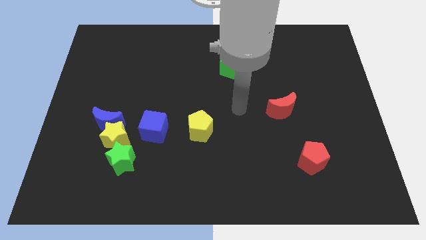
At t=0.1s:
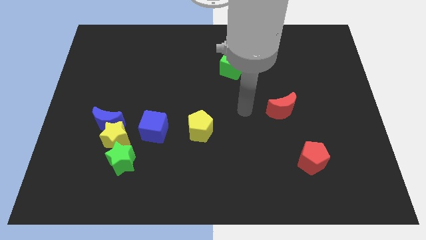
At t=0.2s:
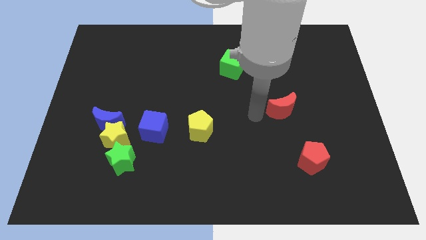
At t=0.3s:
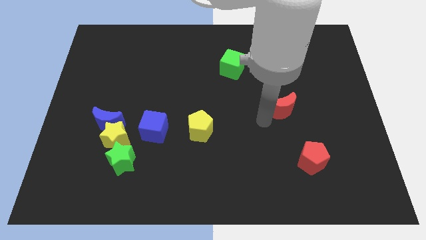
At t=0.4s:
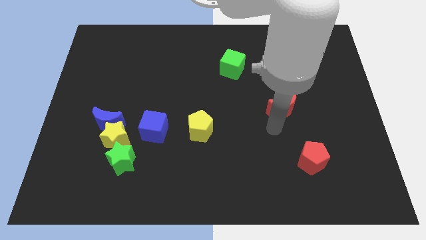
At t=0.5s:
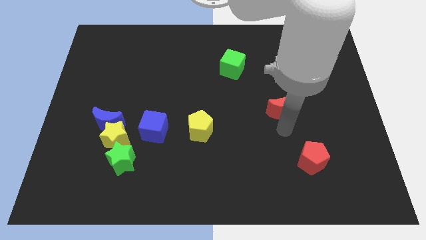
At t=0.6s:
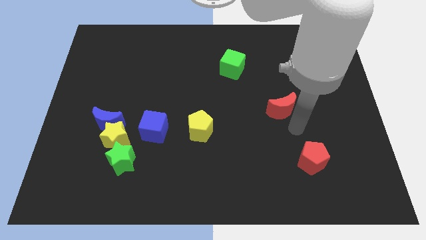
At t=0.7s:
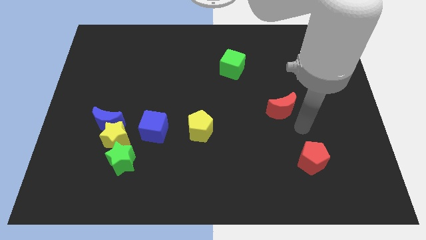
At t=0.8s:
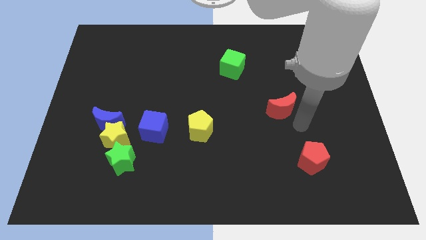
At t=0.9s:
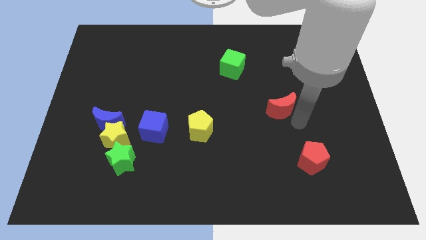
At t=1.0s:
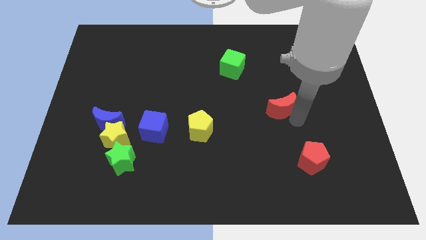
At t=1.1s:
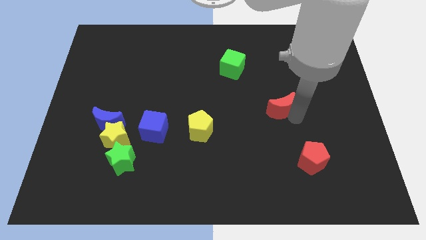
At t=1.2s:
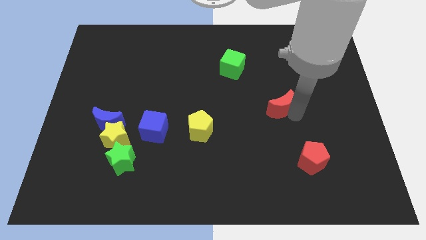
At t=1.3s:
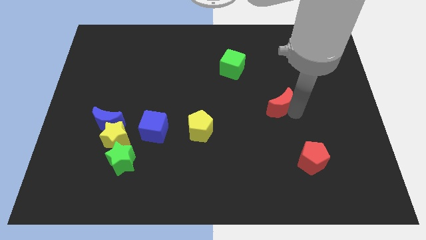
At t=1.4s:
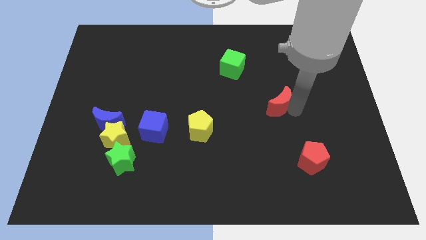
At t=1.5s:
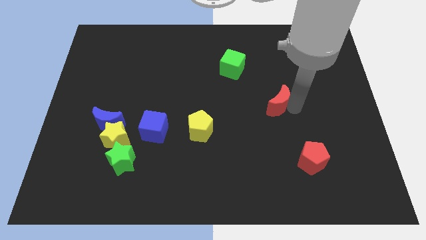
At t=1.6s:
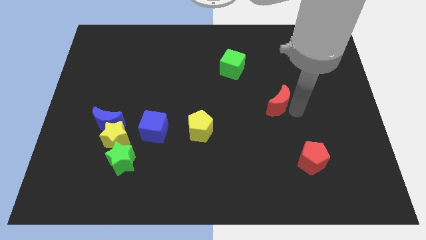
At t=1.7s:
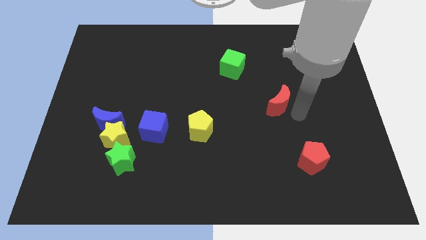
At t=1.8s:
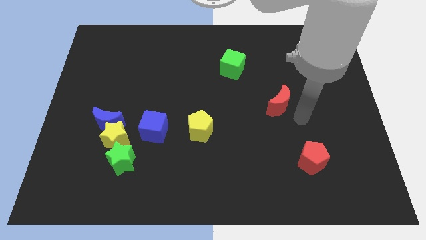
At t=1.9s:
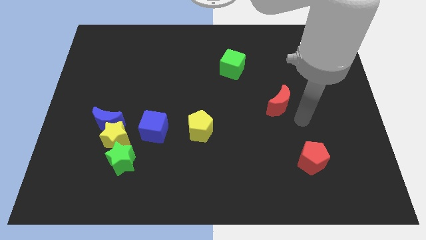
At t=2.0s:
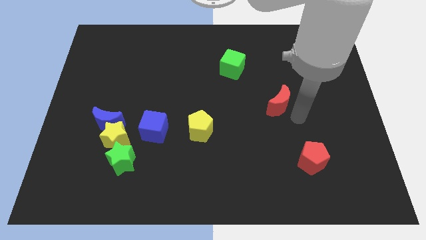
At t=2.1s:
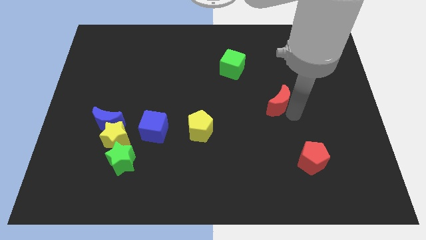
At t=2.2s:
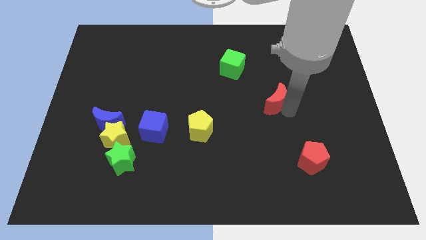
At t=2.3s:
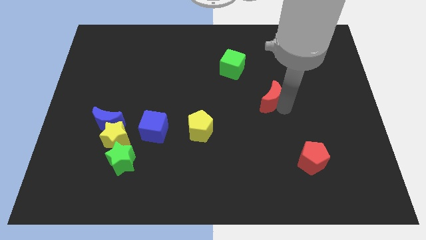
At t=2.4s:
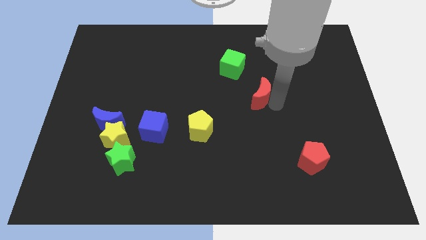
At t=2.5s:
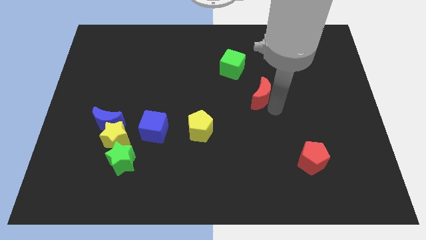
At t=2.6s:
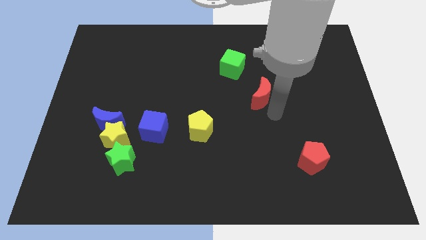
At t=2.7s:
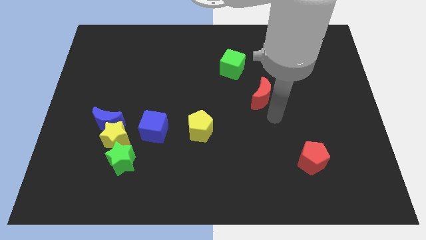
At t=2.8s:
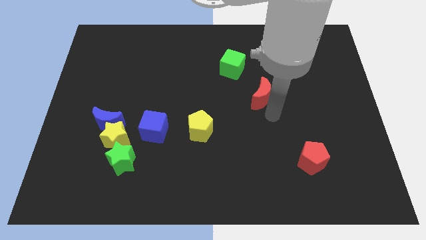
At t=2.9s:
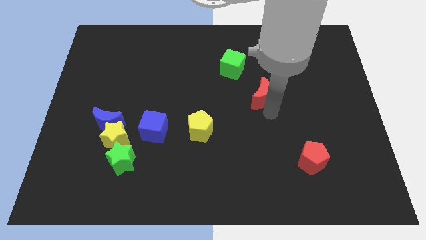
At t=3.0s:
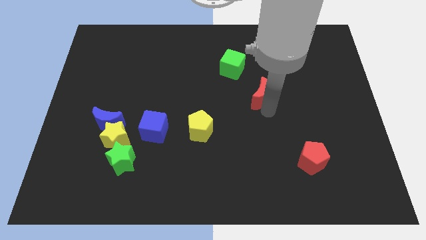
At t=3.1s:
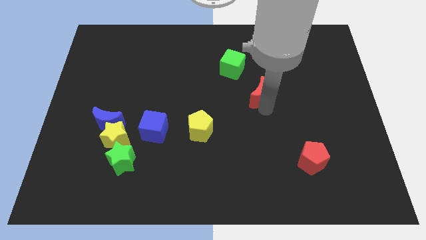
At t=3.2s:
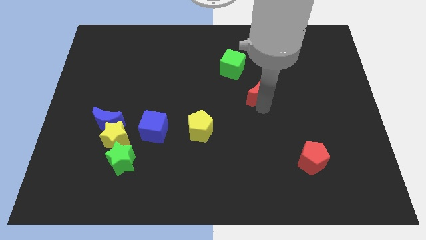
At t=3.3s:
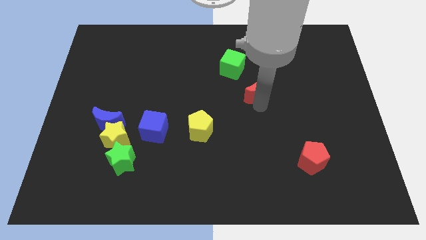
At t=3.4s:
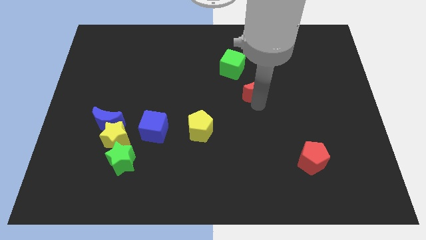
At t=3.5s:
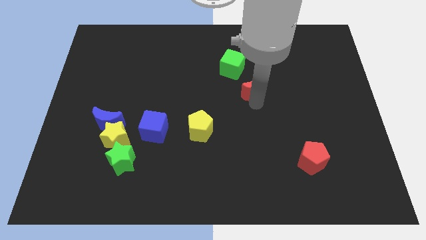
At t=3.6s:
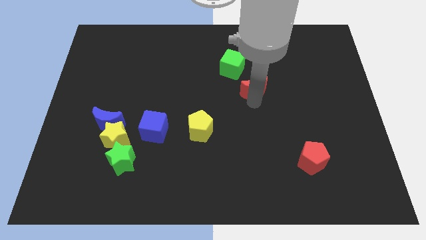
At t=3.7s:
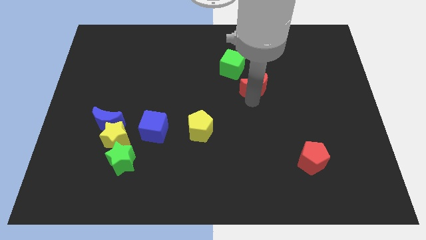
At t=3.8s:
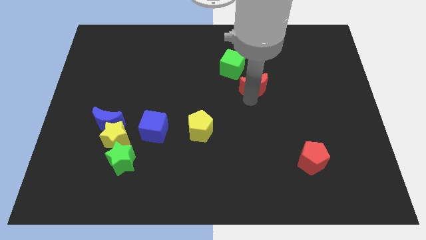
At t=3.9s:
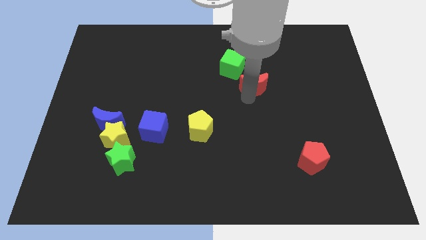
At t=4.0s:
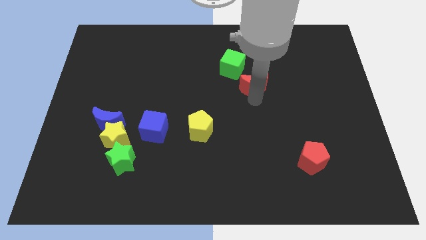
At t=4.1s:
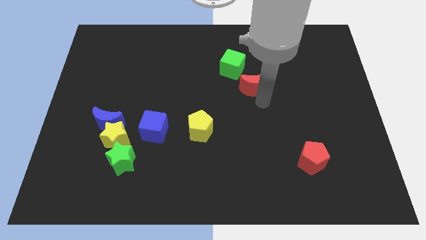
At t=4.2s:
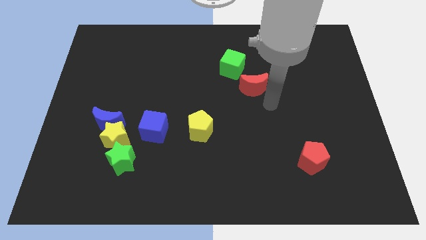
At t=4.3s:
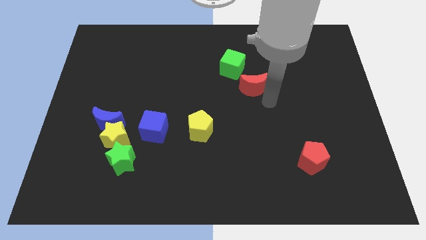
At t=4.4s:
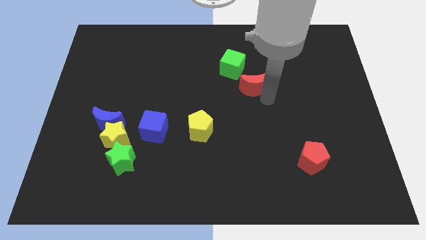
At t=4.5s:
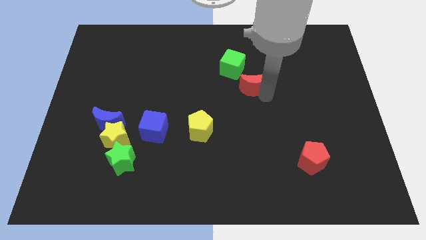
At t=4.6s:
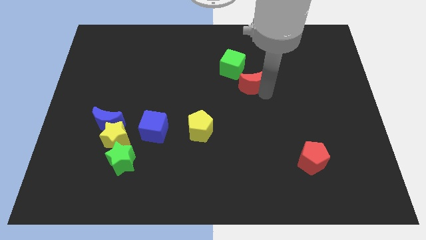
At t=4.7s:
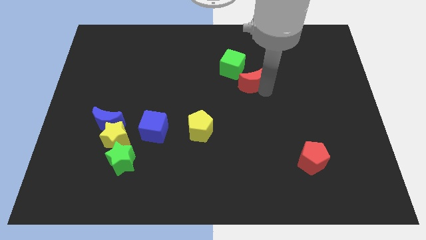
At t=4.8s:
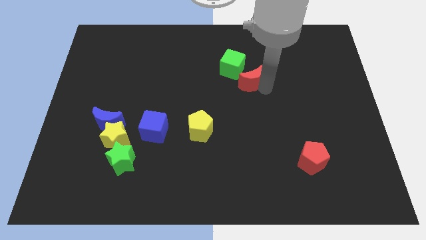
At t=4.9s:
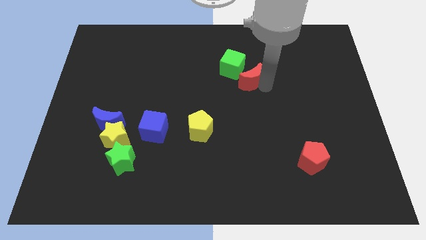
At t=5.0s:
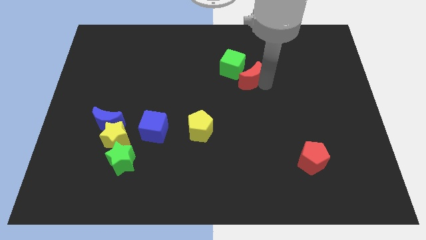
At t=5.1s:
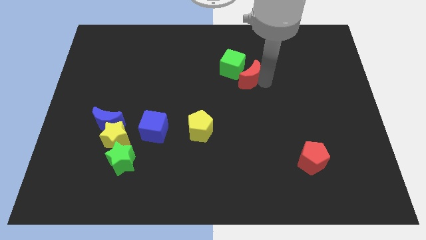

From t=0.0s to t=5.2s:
put the red moon close to the green cube

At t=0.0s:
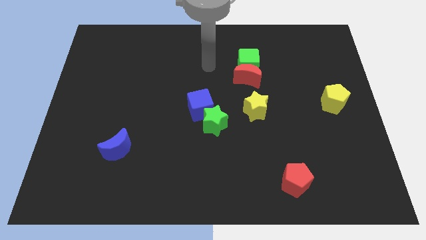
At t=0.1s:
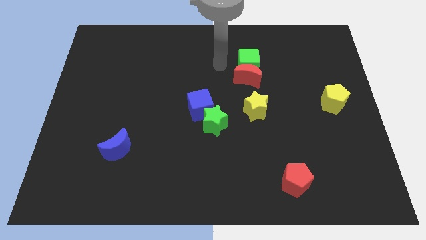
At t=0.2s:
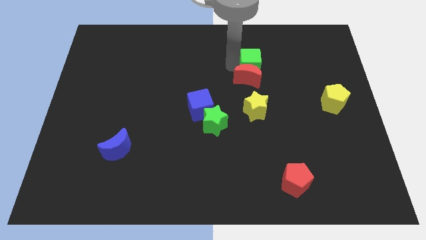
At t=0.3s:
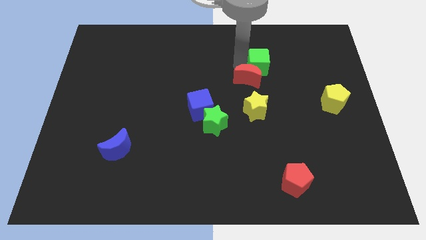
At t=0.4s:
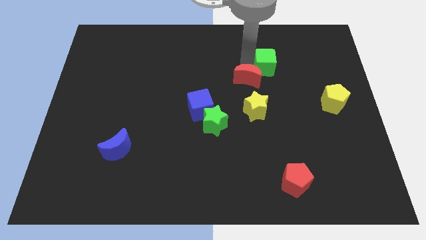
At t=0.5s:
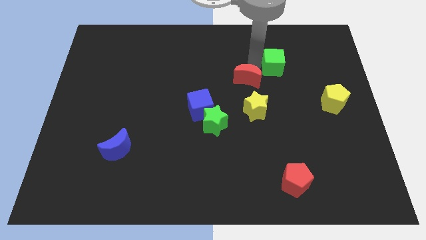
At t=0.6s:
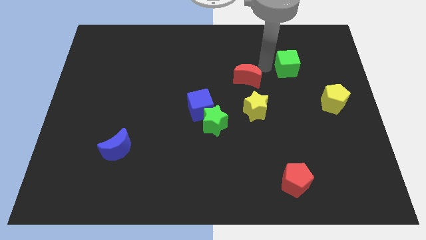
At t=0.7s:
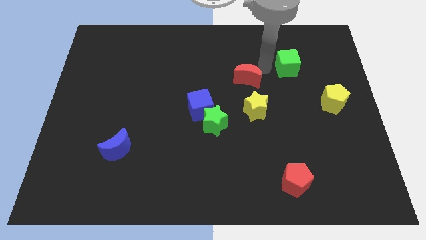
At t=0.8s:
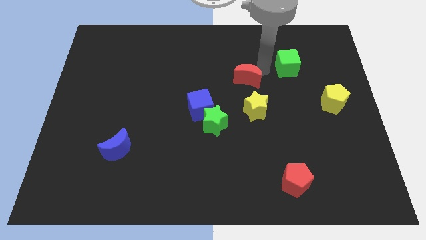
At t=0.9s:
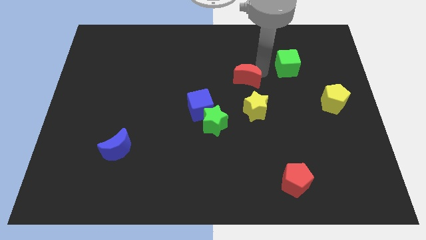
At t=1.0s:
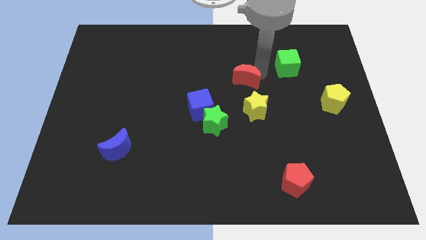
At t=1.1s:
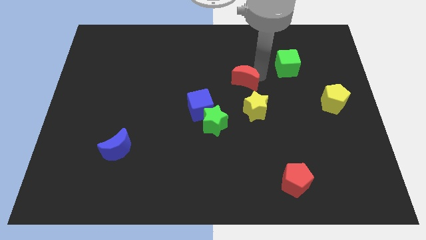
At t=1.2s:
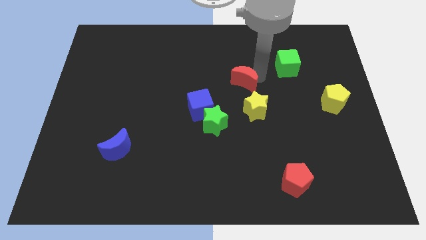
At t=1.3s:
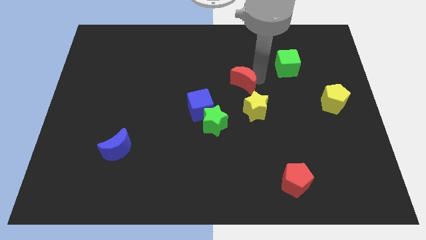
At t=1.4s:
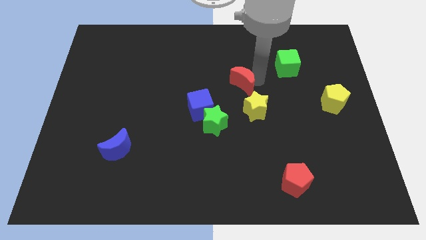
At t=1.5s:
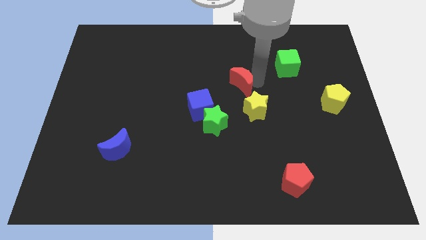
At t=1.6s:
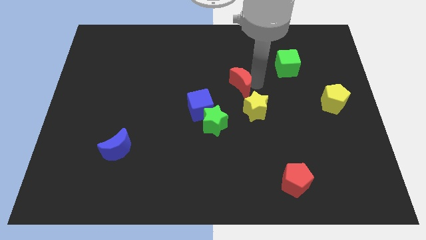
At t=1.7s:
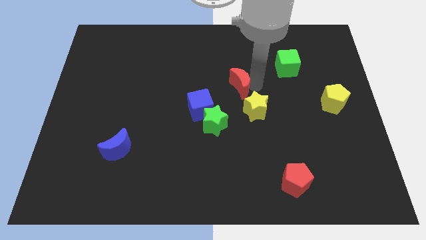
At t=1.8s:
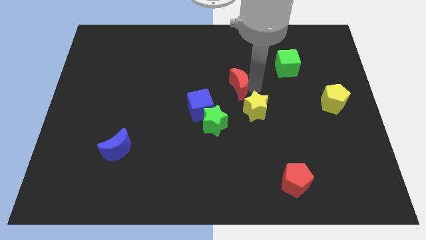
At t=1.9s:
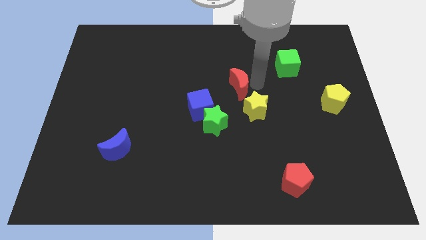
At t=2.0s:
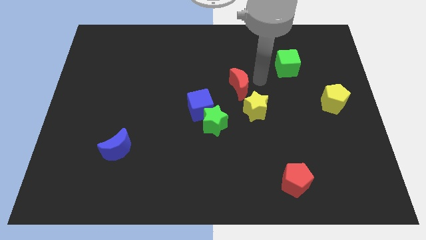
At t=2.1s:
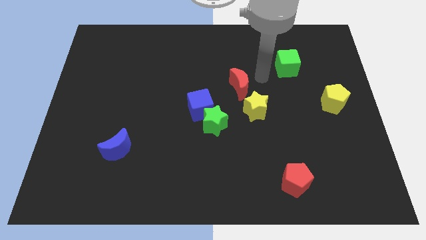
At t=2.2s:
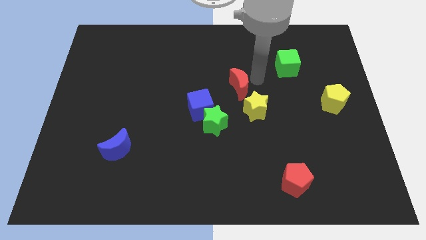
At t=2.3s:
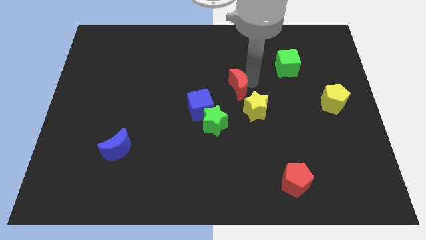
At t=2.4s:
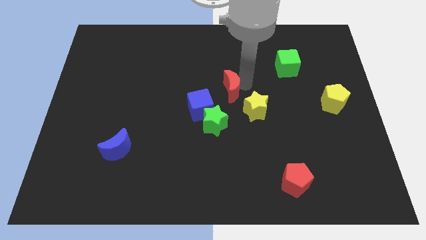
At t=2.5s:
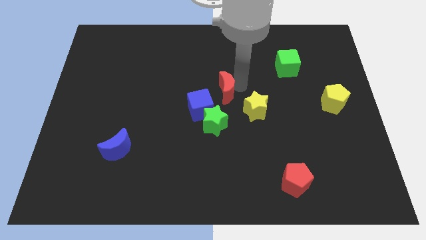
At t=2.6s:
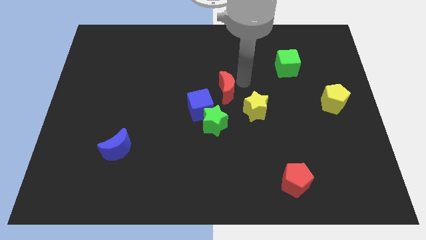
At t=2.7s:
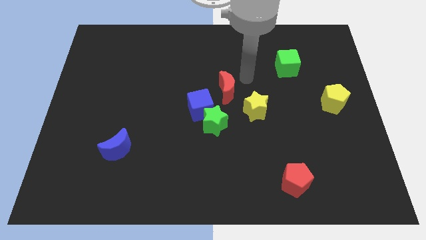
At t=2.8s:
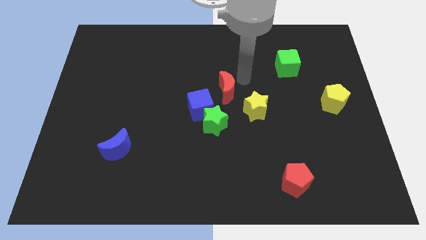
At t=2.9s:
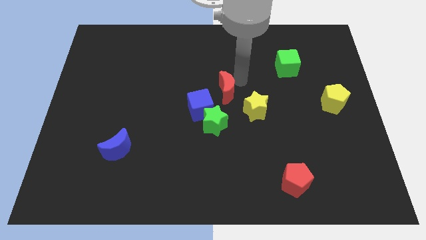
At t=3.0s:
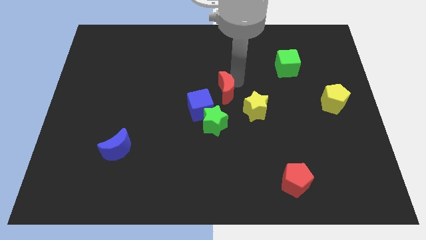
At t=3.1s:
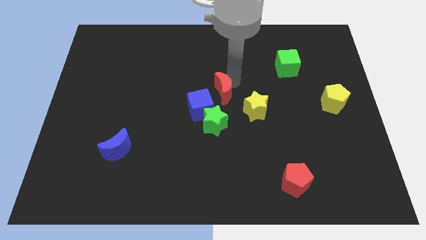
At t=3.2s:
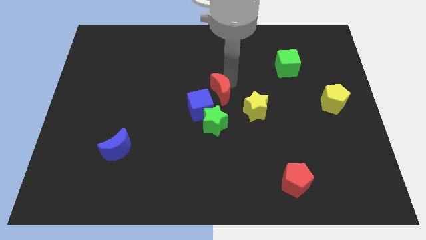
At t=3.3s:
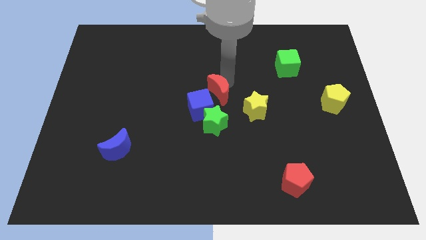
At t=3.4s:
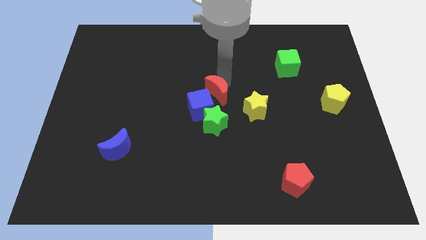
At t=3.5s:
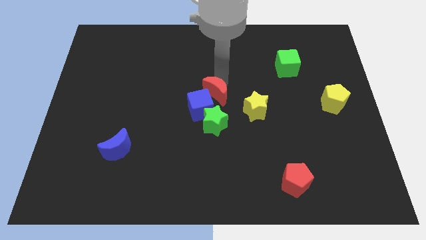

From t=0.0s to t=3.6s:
push the red moon close to the blue cube
